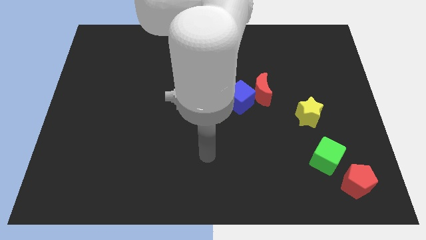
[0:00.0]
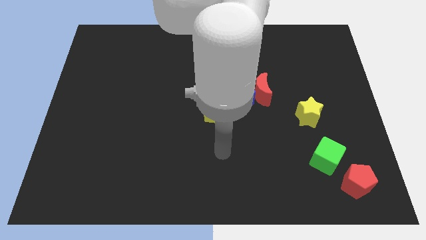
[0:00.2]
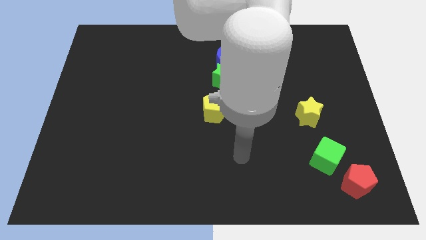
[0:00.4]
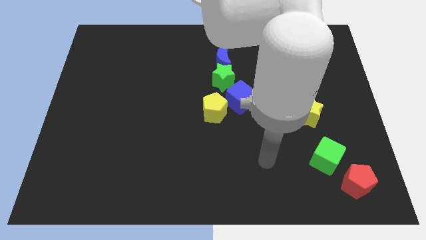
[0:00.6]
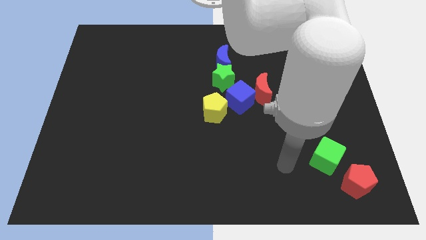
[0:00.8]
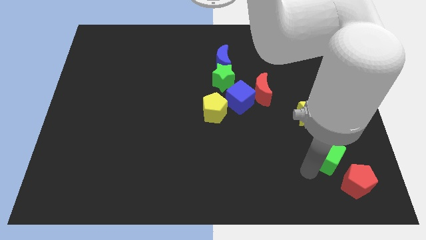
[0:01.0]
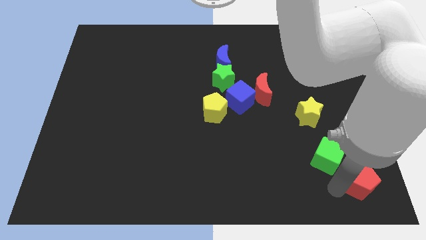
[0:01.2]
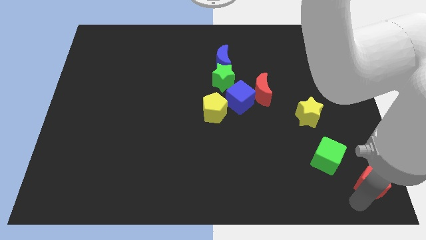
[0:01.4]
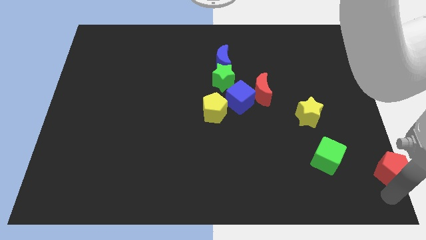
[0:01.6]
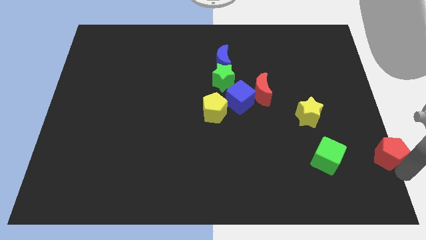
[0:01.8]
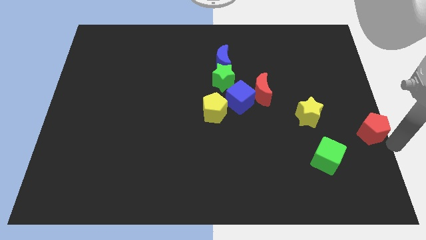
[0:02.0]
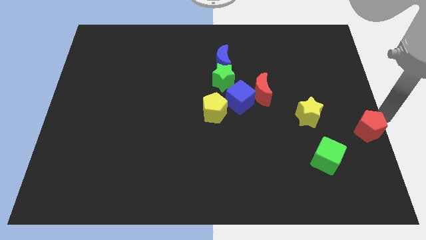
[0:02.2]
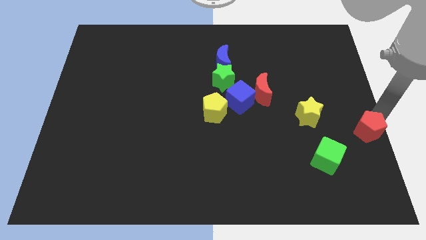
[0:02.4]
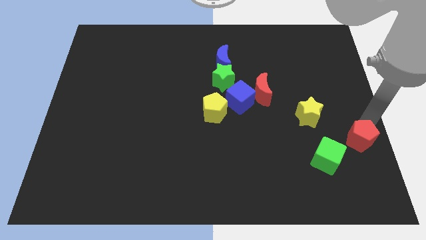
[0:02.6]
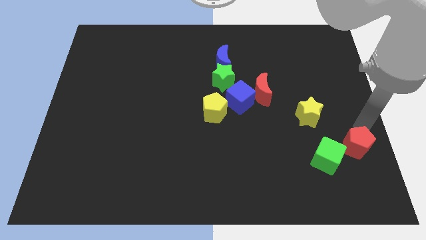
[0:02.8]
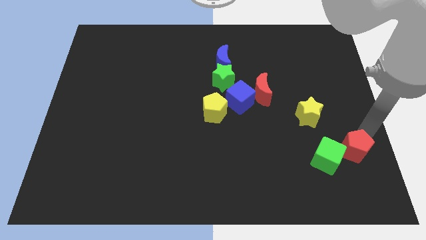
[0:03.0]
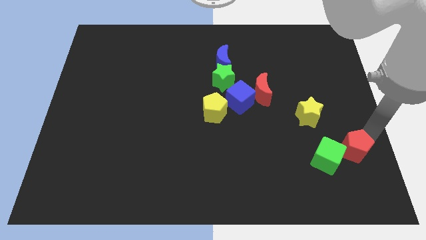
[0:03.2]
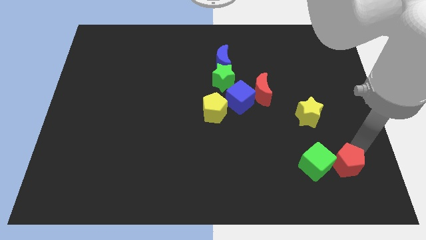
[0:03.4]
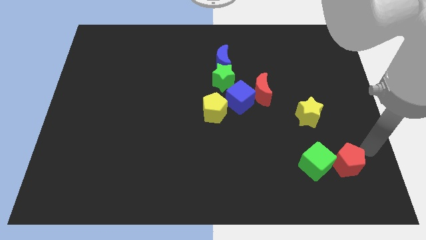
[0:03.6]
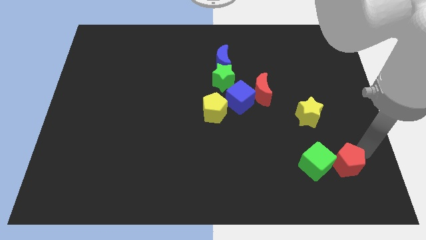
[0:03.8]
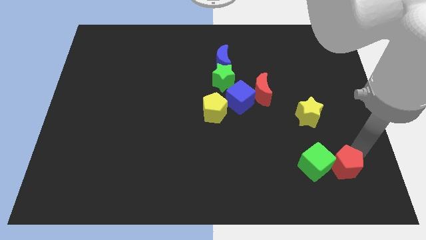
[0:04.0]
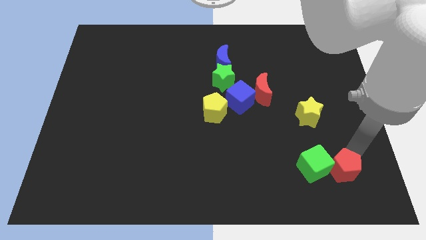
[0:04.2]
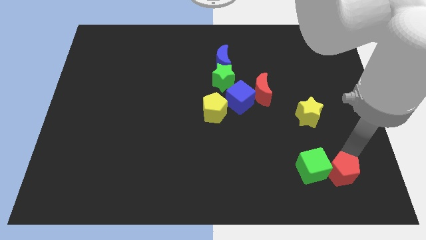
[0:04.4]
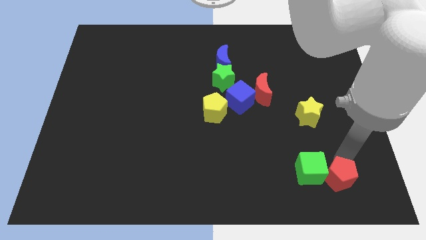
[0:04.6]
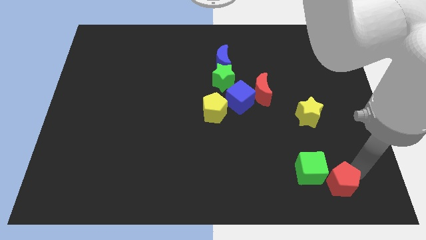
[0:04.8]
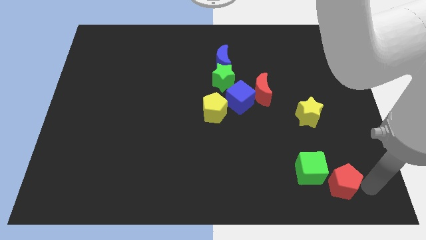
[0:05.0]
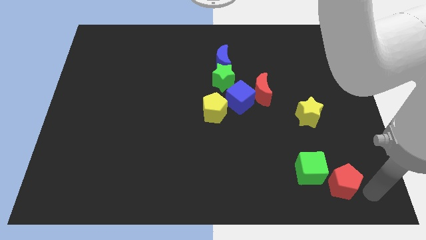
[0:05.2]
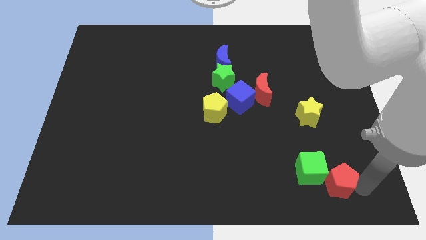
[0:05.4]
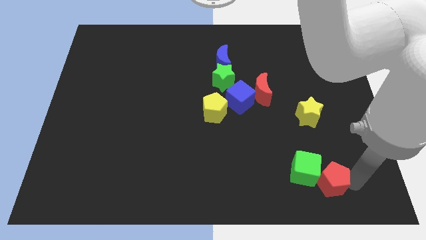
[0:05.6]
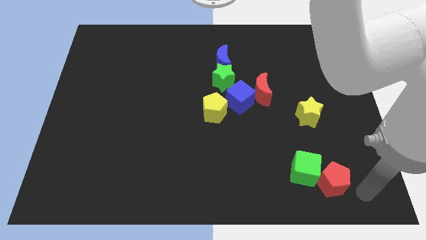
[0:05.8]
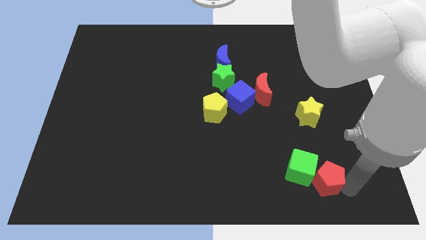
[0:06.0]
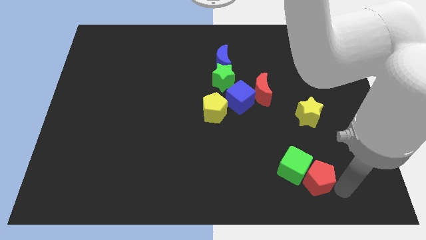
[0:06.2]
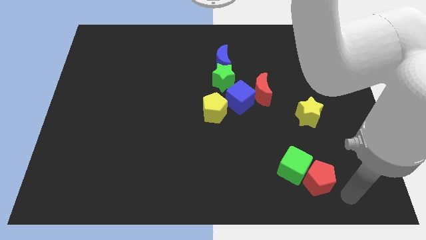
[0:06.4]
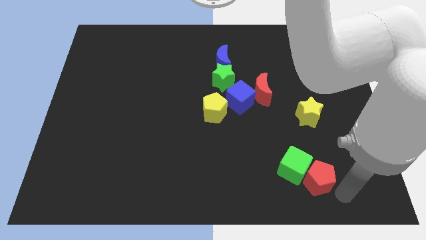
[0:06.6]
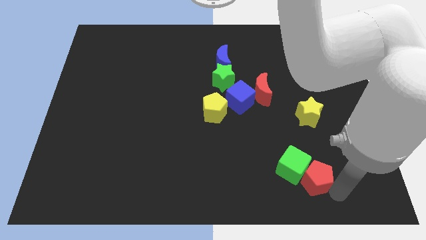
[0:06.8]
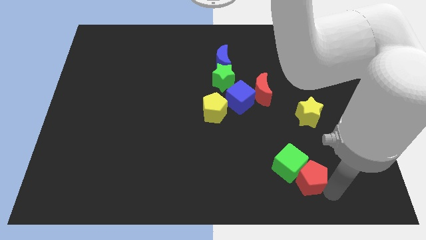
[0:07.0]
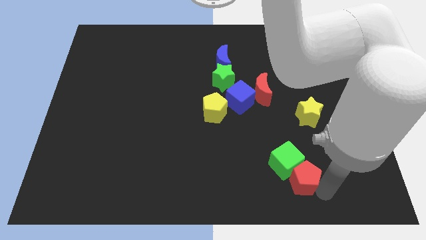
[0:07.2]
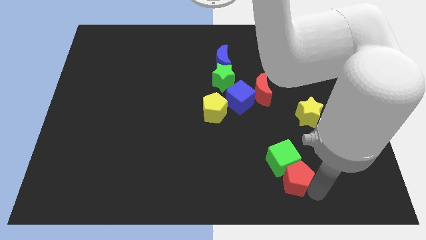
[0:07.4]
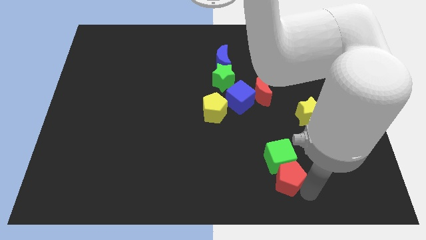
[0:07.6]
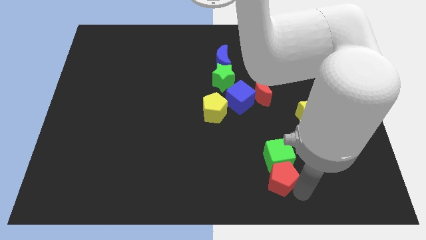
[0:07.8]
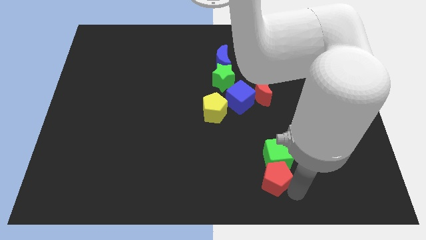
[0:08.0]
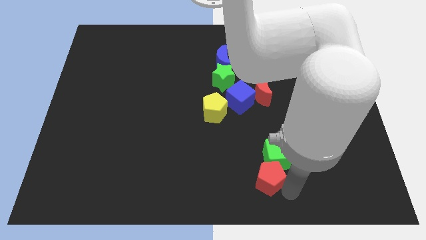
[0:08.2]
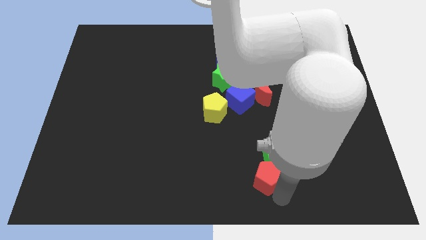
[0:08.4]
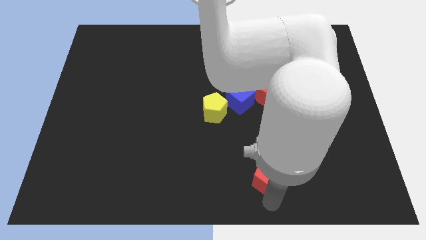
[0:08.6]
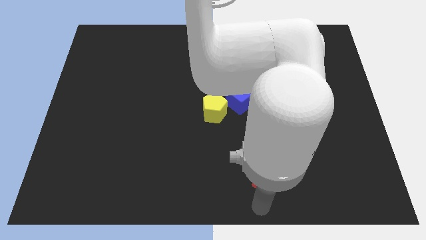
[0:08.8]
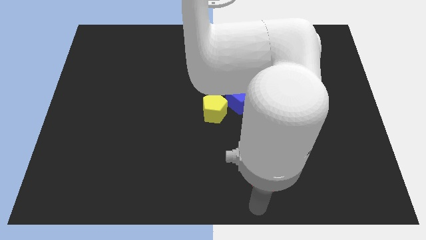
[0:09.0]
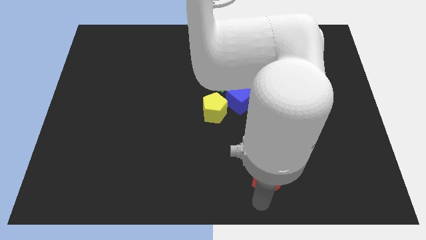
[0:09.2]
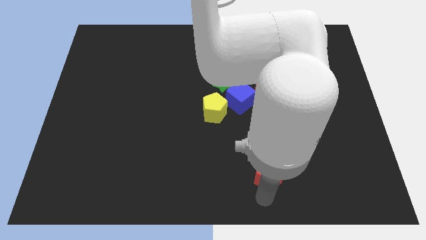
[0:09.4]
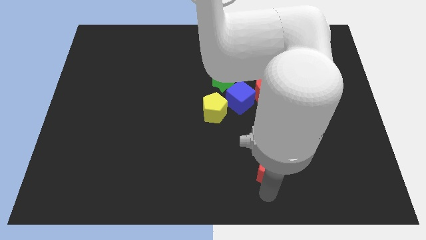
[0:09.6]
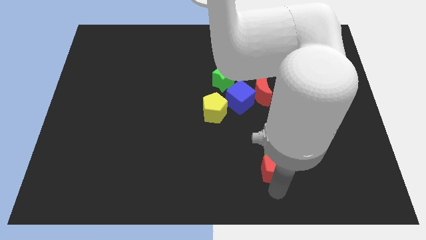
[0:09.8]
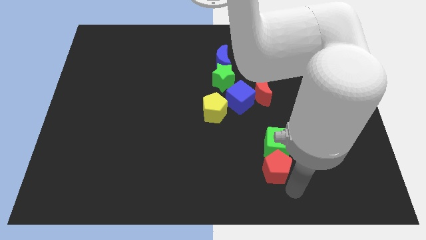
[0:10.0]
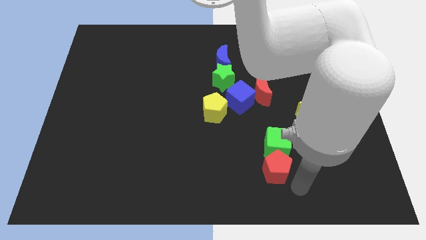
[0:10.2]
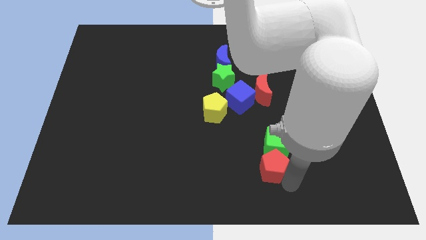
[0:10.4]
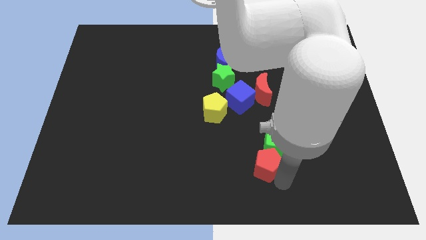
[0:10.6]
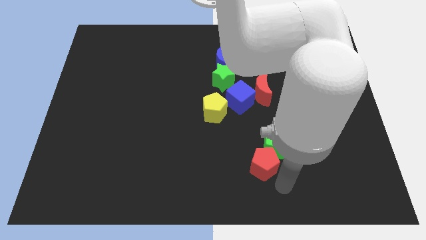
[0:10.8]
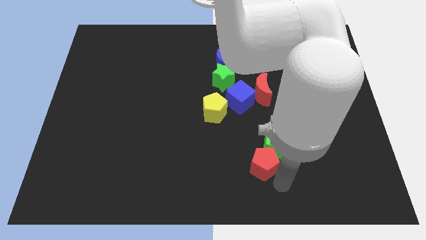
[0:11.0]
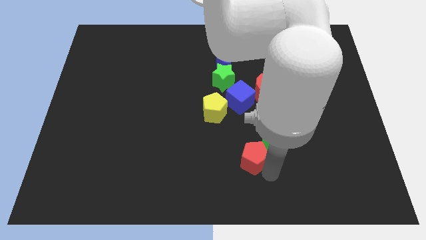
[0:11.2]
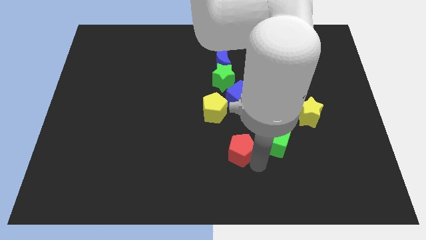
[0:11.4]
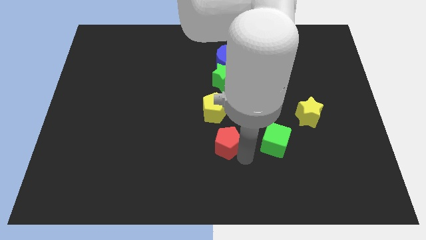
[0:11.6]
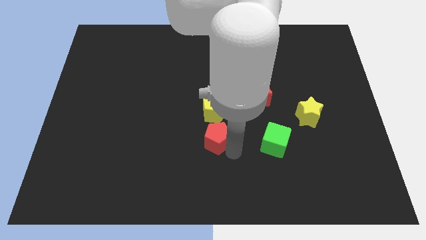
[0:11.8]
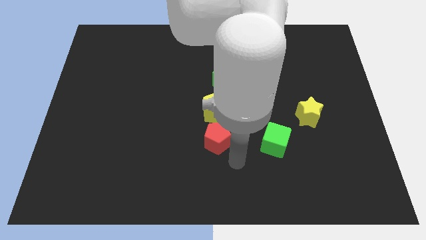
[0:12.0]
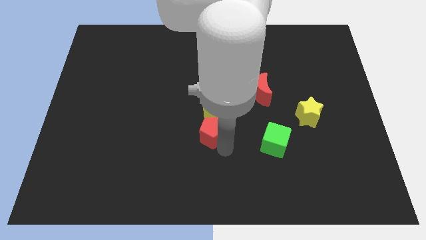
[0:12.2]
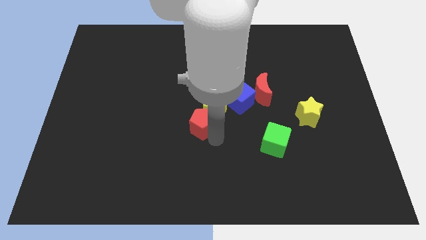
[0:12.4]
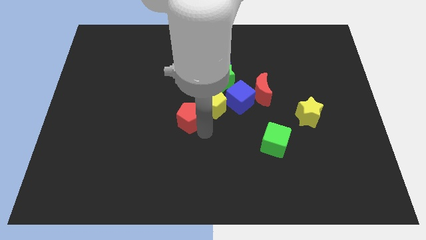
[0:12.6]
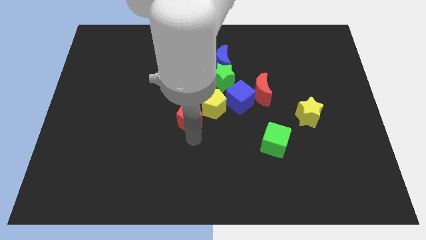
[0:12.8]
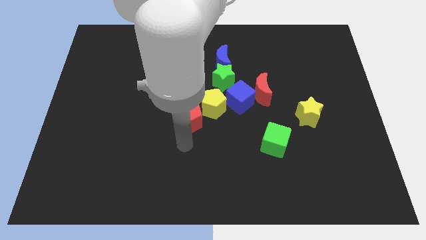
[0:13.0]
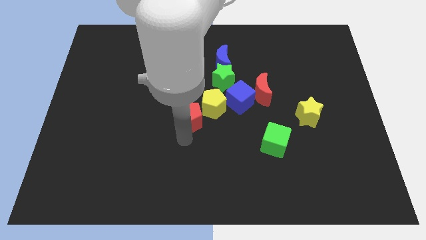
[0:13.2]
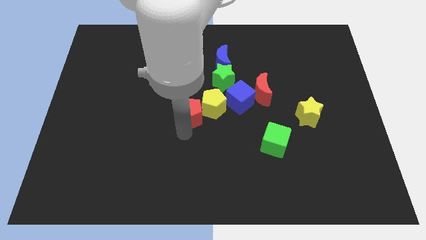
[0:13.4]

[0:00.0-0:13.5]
push the red pentagon to the left side of the blue cube
